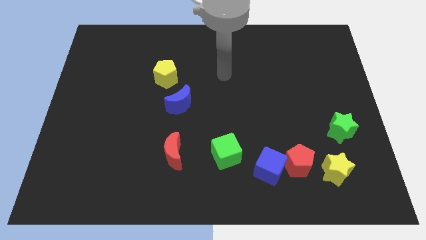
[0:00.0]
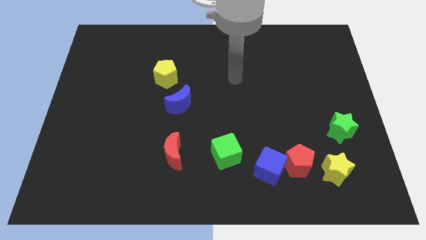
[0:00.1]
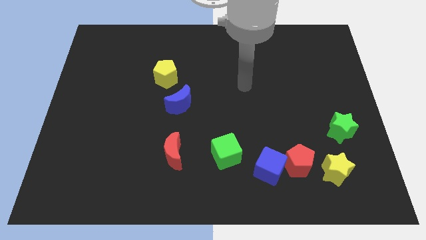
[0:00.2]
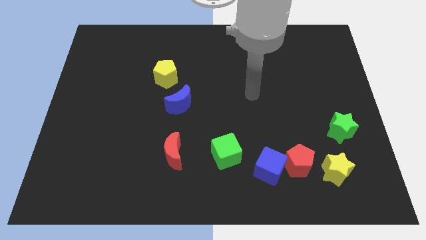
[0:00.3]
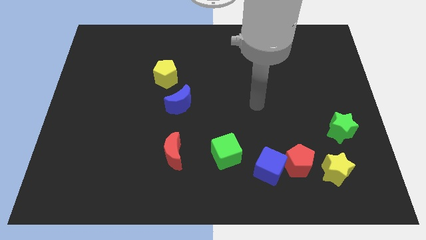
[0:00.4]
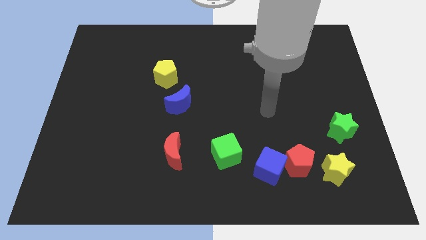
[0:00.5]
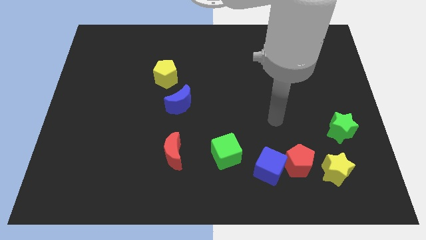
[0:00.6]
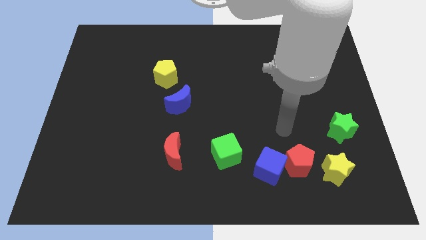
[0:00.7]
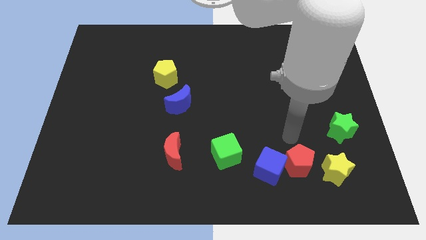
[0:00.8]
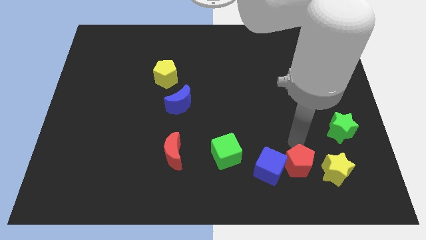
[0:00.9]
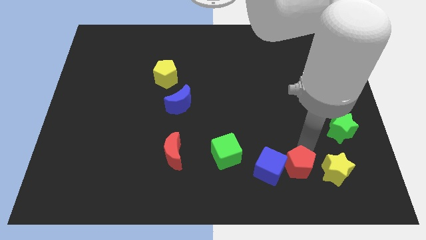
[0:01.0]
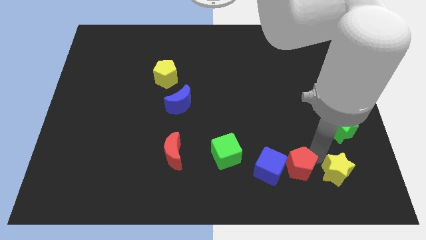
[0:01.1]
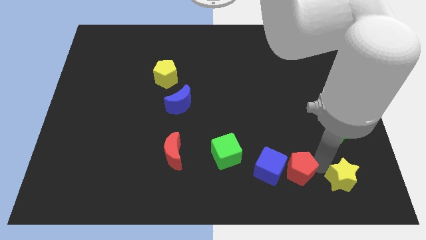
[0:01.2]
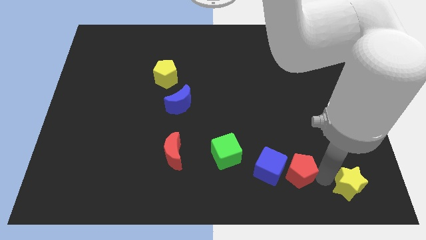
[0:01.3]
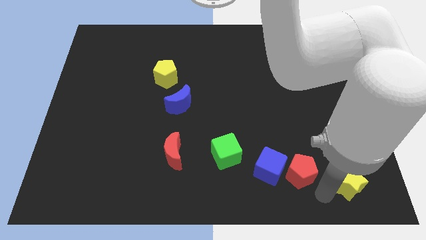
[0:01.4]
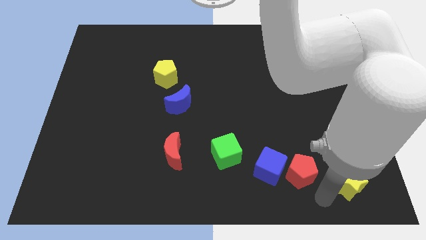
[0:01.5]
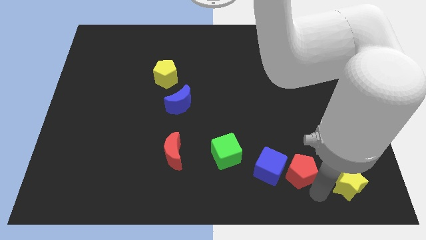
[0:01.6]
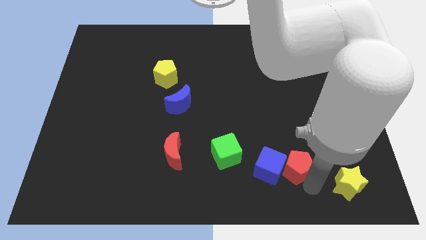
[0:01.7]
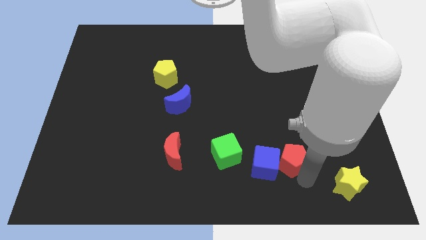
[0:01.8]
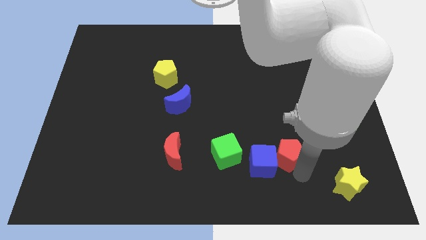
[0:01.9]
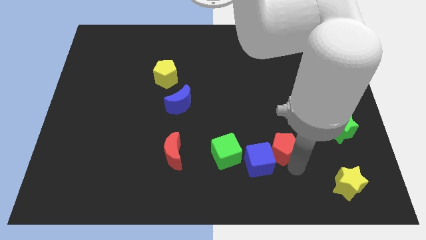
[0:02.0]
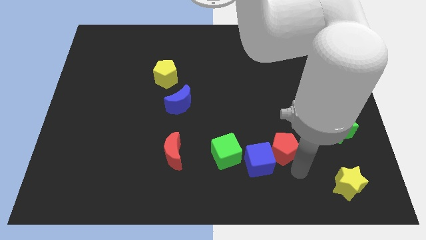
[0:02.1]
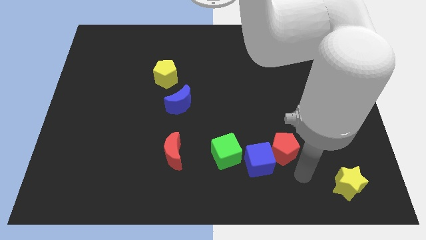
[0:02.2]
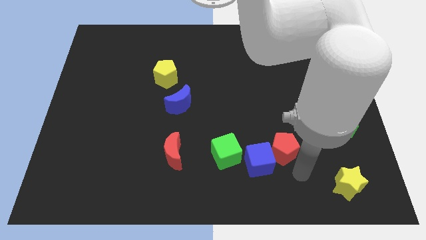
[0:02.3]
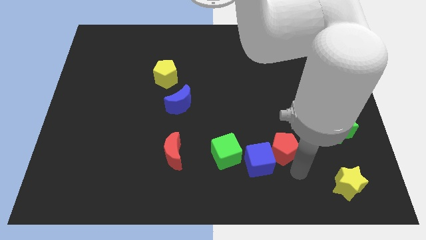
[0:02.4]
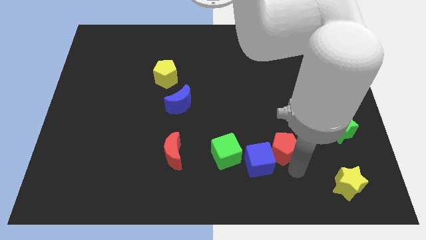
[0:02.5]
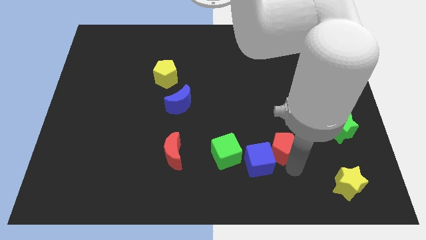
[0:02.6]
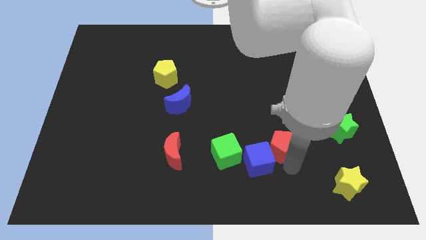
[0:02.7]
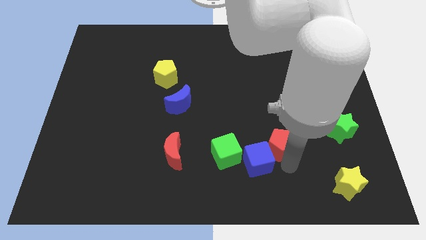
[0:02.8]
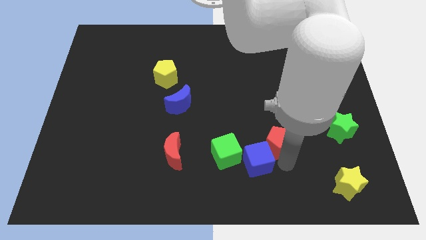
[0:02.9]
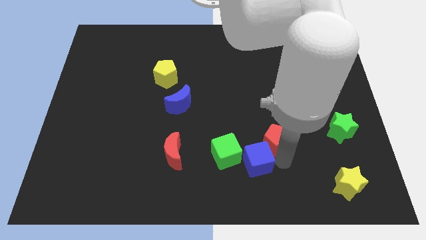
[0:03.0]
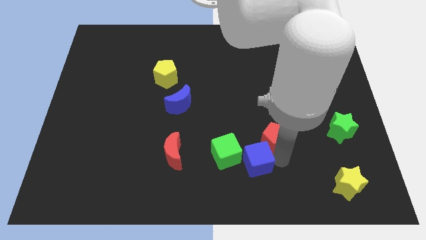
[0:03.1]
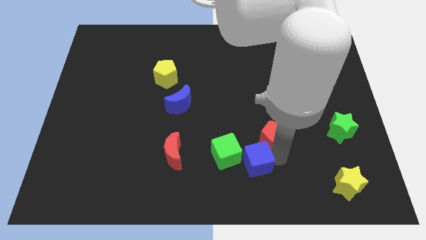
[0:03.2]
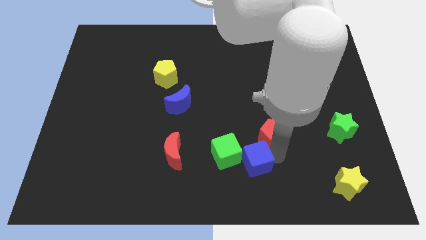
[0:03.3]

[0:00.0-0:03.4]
move the red pentagon away from the blue cube and yellow star

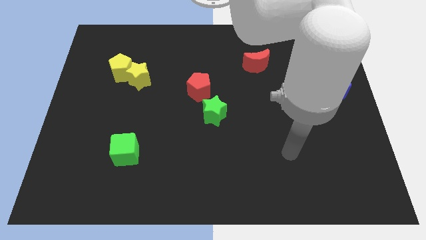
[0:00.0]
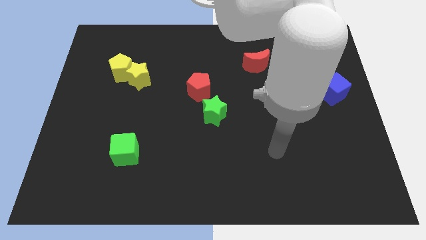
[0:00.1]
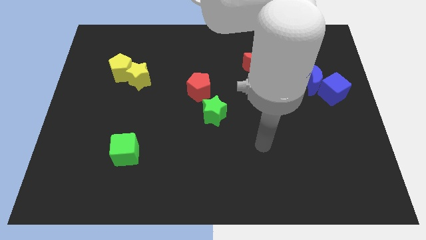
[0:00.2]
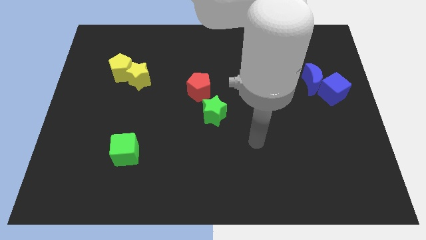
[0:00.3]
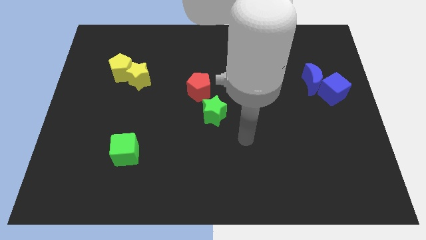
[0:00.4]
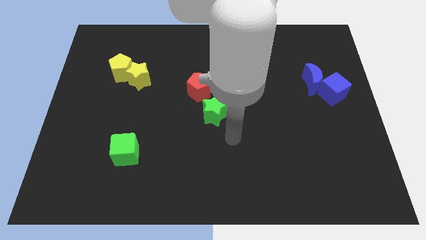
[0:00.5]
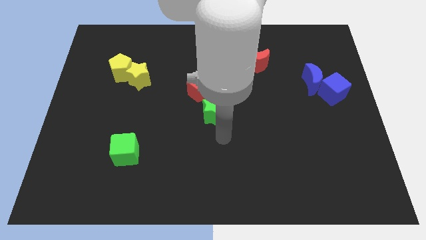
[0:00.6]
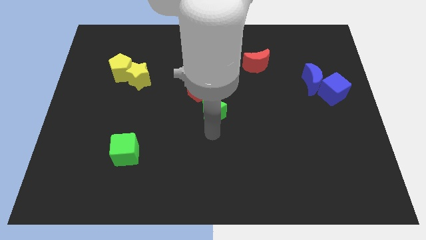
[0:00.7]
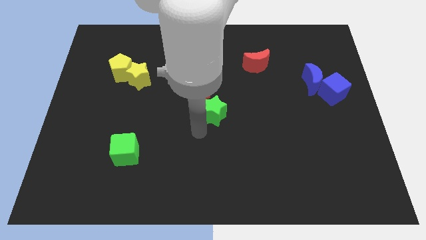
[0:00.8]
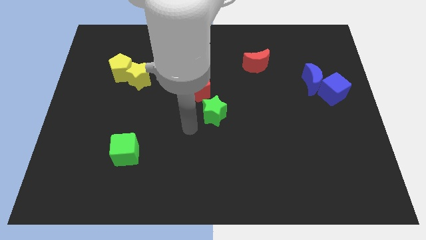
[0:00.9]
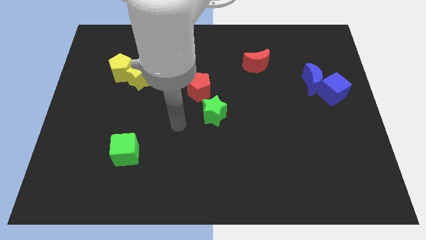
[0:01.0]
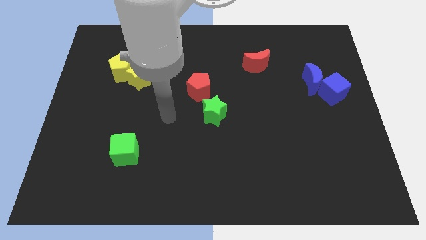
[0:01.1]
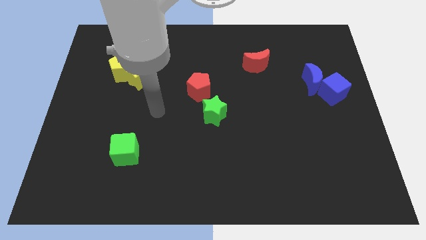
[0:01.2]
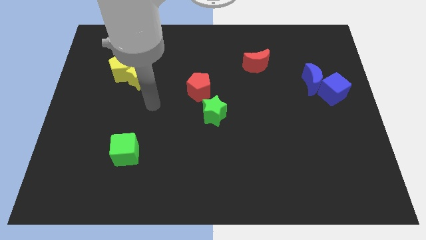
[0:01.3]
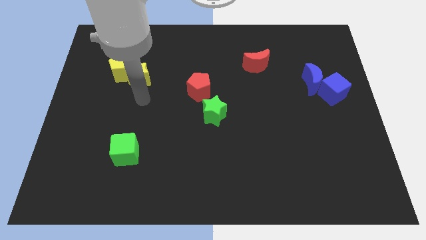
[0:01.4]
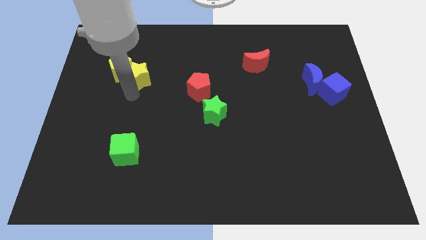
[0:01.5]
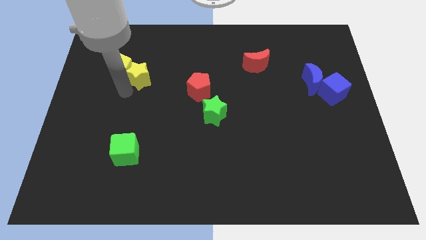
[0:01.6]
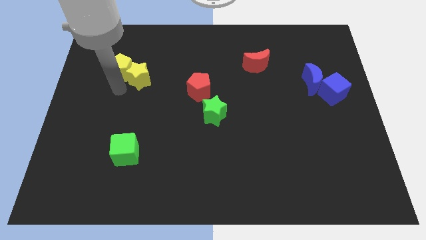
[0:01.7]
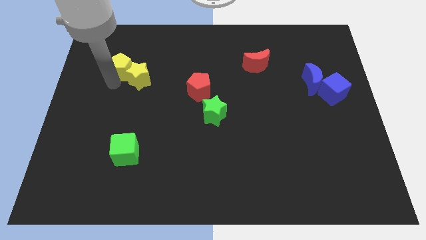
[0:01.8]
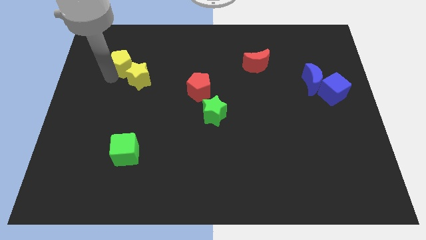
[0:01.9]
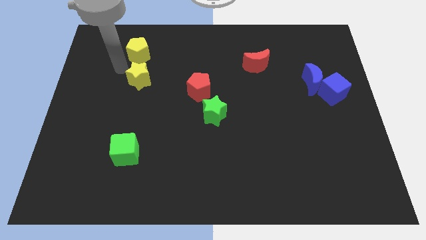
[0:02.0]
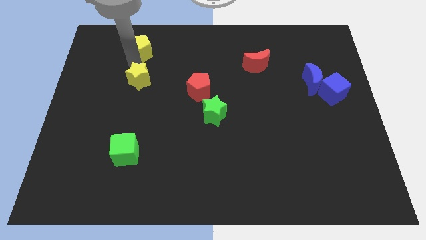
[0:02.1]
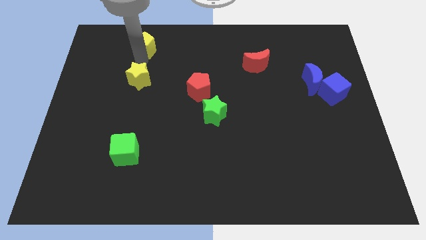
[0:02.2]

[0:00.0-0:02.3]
move the yellow star away from the yellow pentagon

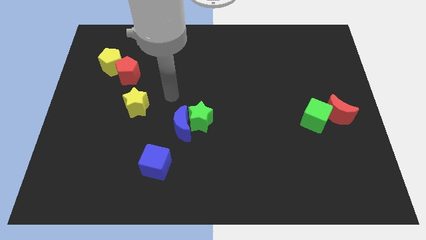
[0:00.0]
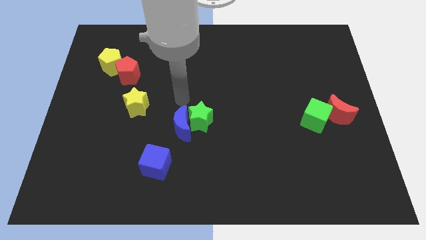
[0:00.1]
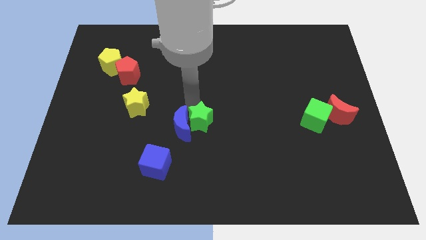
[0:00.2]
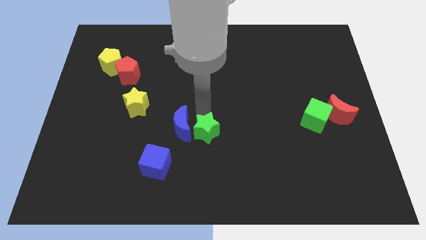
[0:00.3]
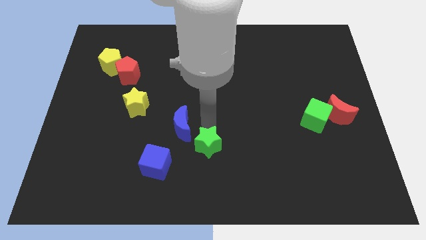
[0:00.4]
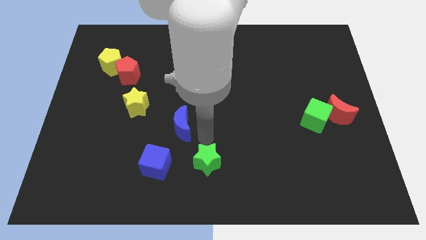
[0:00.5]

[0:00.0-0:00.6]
pull the blue moon apart from the green star

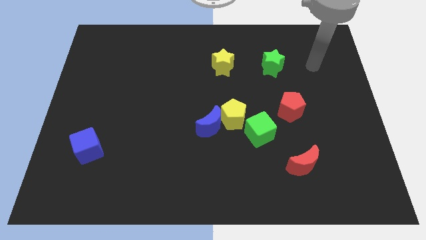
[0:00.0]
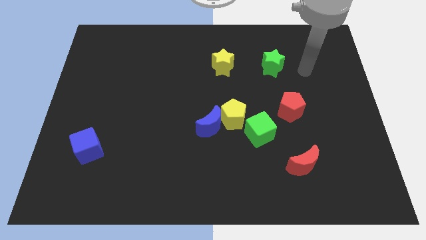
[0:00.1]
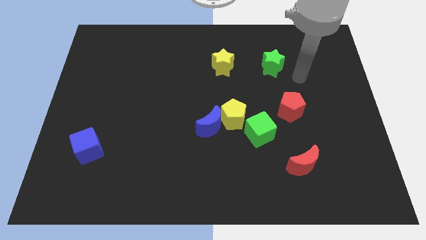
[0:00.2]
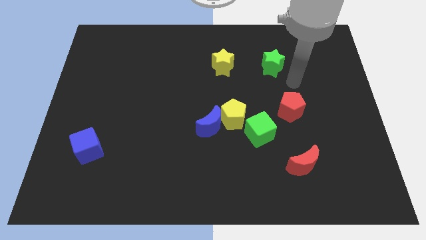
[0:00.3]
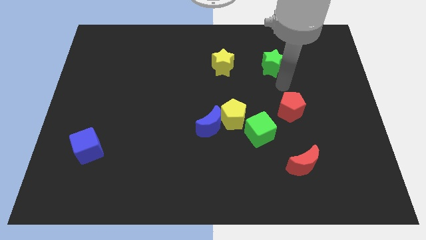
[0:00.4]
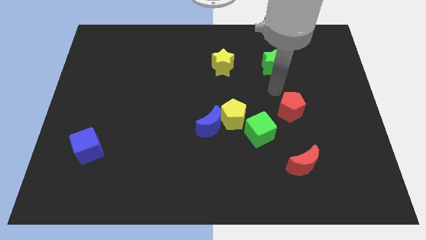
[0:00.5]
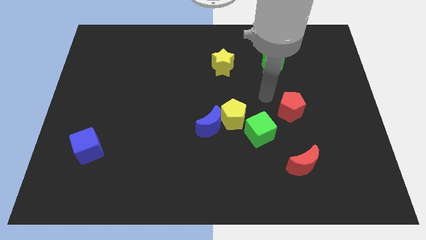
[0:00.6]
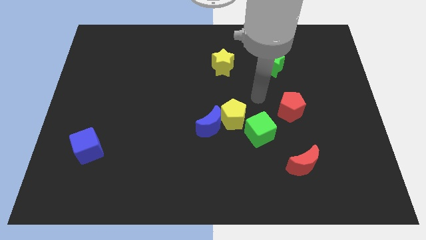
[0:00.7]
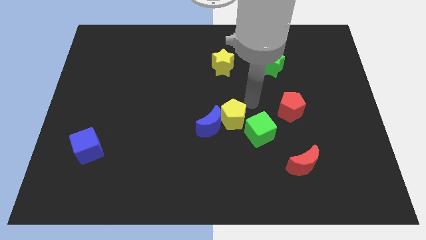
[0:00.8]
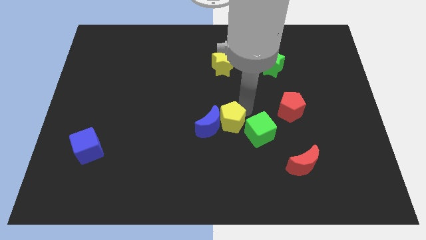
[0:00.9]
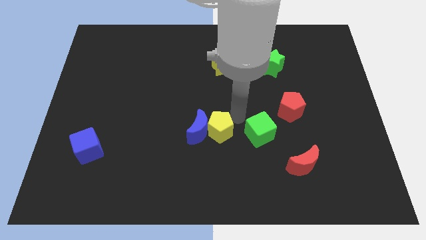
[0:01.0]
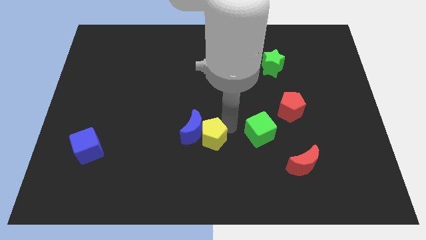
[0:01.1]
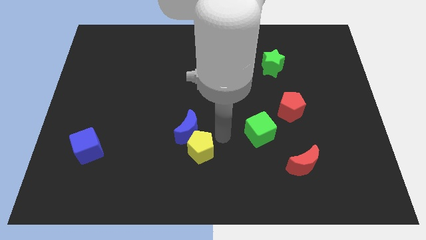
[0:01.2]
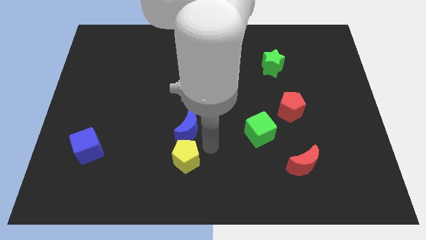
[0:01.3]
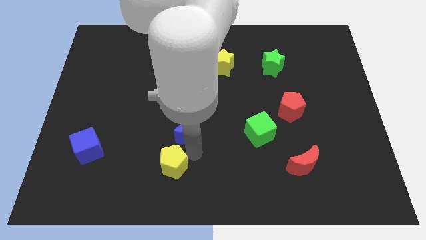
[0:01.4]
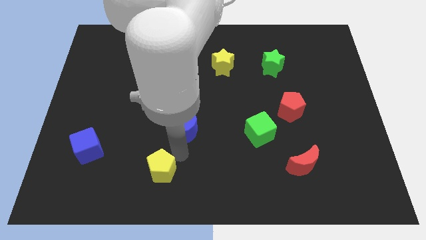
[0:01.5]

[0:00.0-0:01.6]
pull the blue moon apart from the yellow pentagon

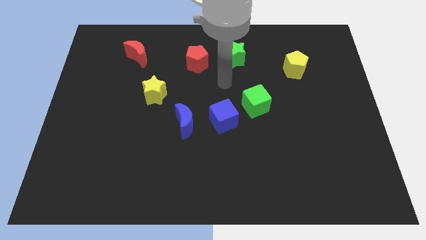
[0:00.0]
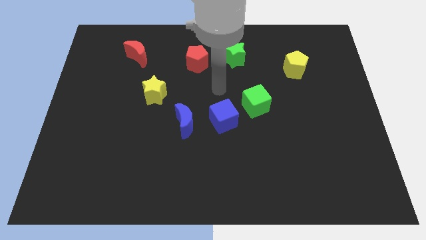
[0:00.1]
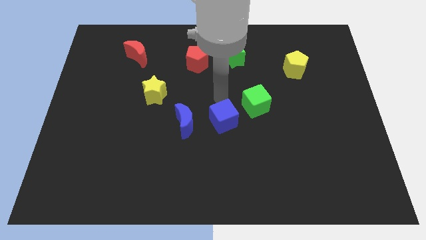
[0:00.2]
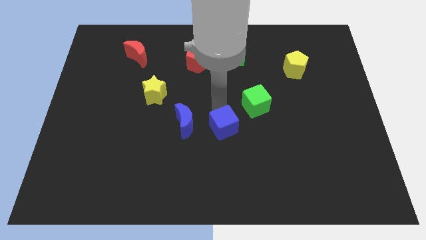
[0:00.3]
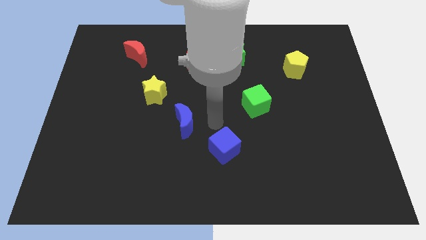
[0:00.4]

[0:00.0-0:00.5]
separate the blue moon from the blue cube

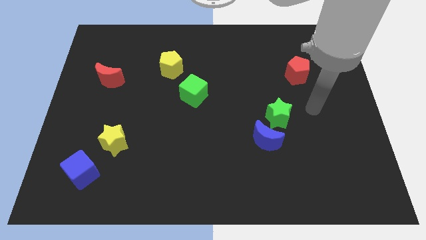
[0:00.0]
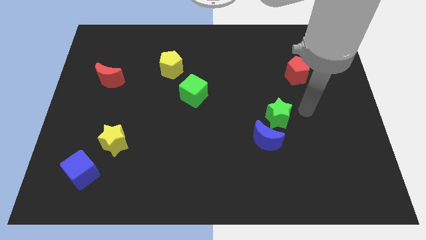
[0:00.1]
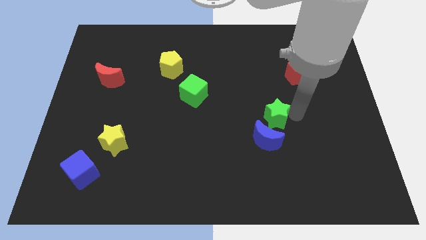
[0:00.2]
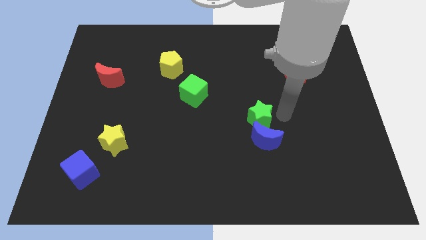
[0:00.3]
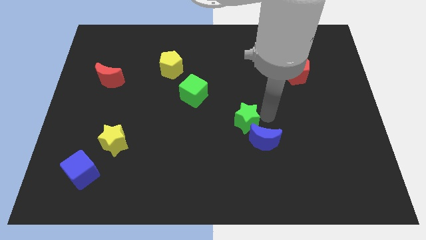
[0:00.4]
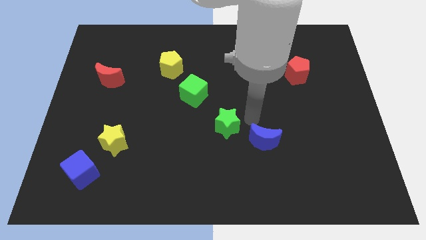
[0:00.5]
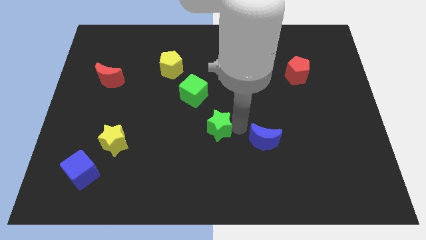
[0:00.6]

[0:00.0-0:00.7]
move the blue moon away from the green star

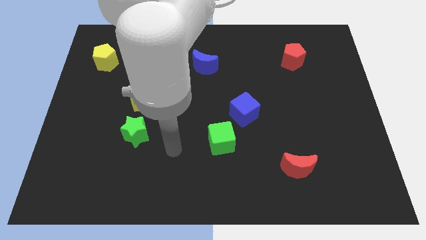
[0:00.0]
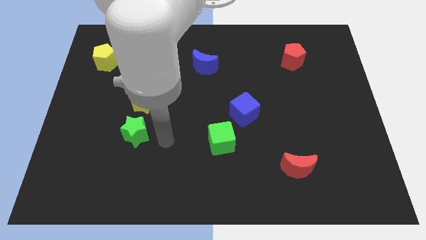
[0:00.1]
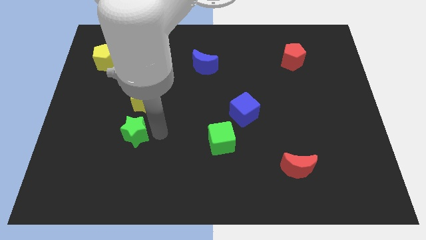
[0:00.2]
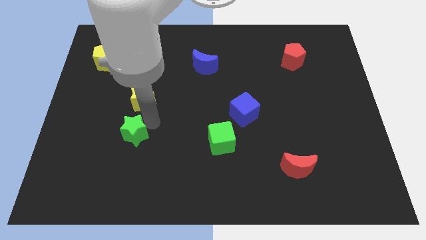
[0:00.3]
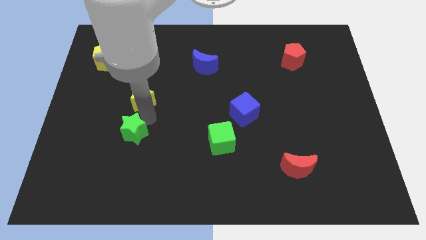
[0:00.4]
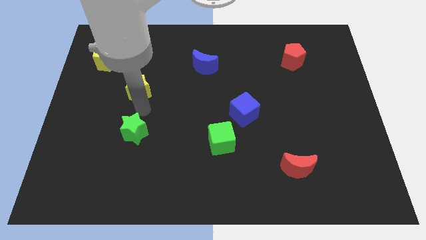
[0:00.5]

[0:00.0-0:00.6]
move the green star away from the yellow star
